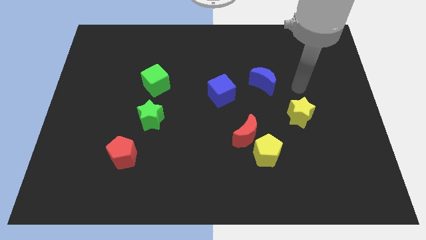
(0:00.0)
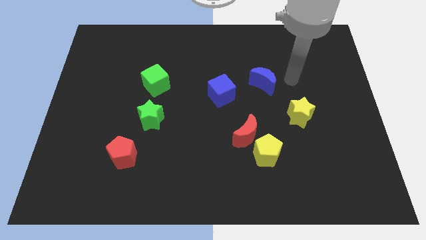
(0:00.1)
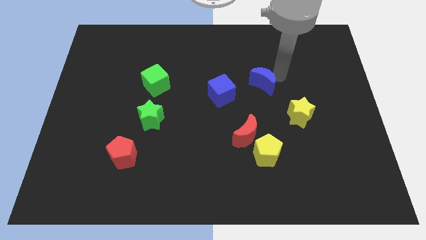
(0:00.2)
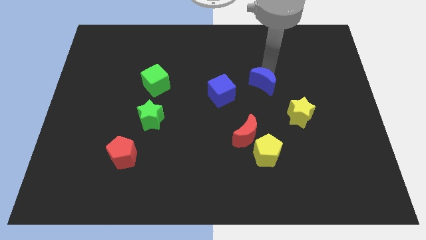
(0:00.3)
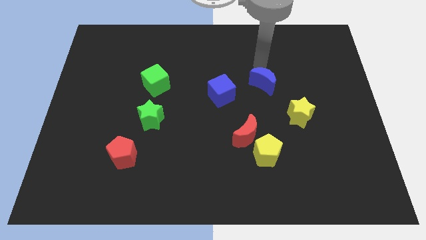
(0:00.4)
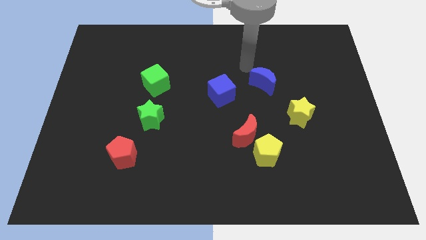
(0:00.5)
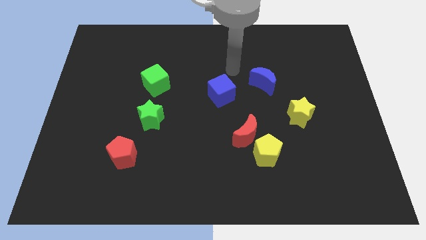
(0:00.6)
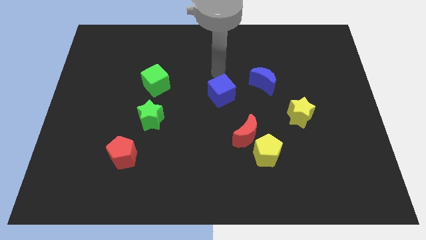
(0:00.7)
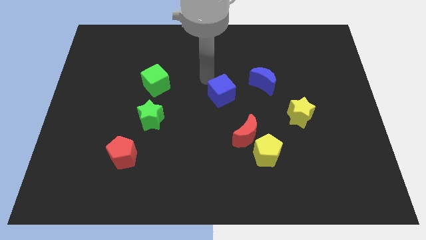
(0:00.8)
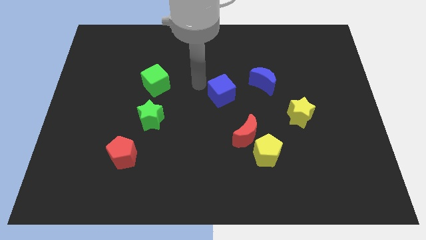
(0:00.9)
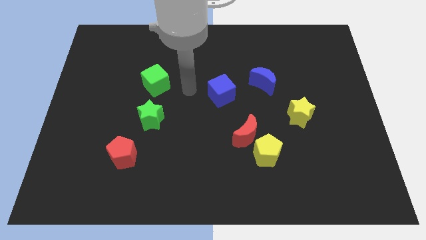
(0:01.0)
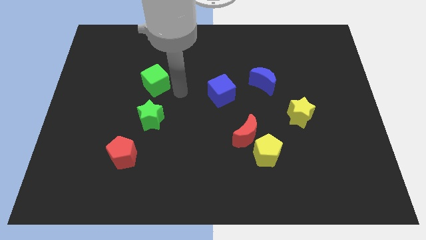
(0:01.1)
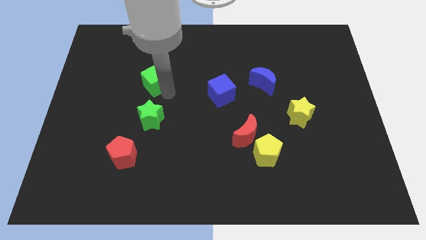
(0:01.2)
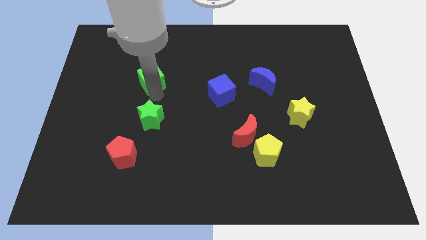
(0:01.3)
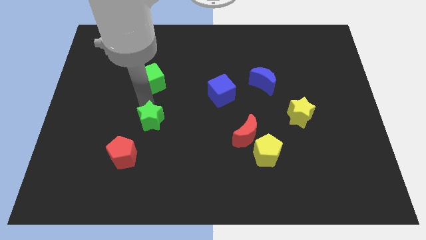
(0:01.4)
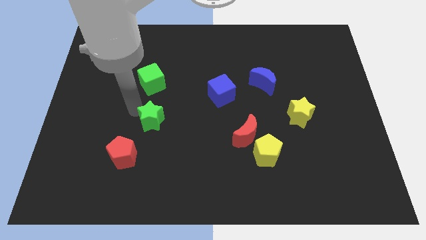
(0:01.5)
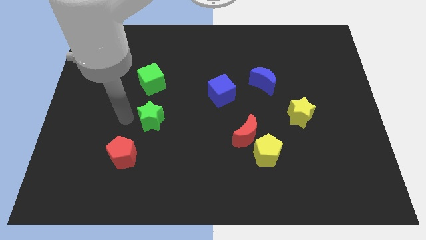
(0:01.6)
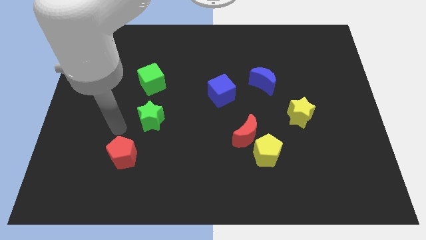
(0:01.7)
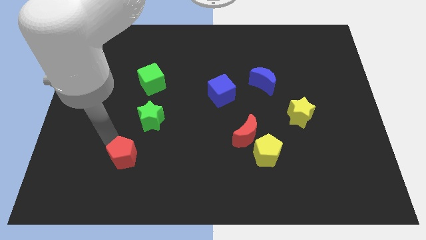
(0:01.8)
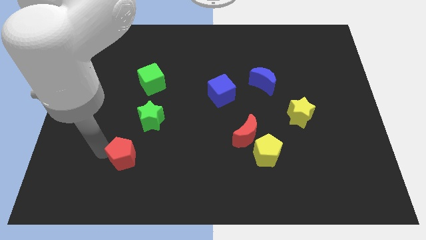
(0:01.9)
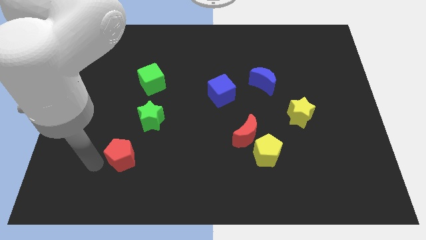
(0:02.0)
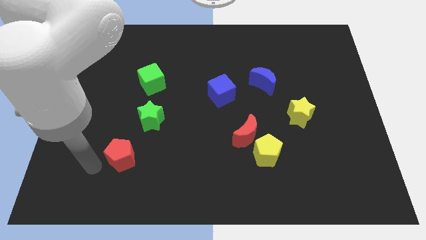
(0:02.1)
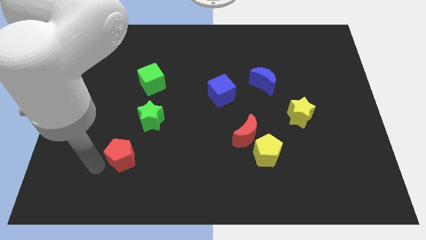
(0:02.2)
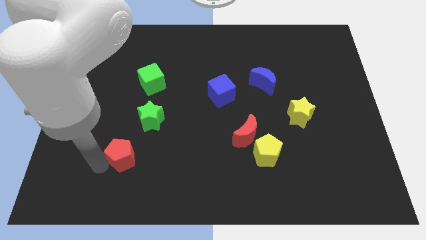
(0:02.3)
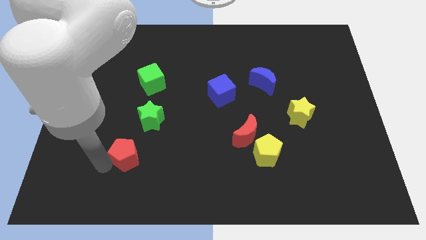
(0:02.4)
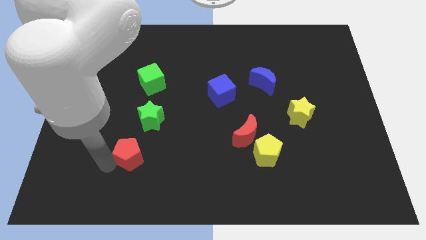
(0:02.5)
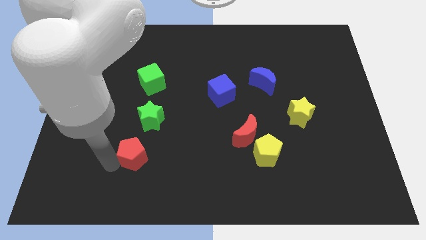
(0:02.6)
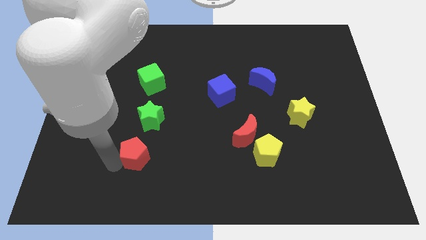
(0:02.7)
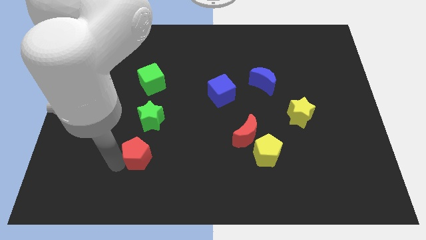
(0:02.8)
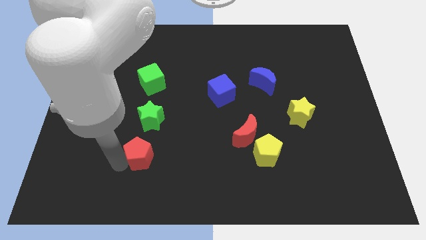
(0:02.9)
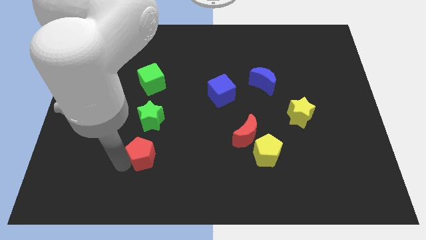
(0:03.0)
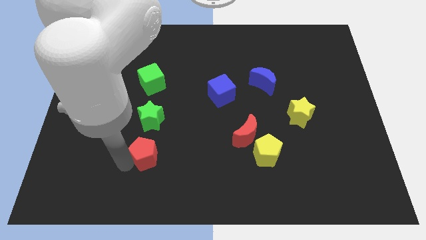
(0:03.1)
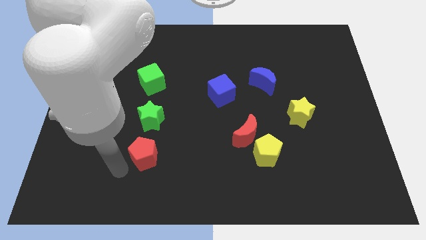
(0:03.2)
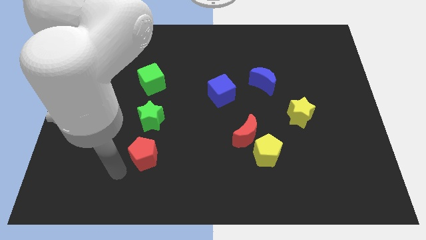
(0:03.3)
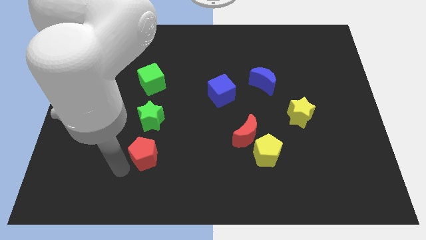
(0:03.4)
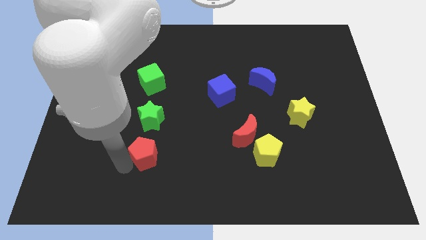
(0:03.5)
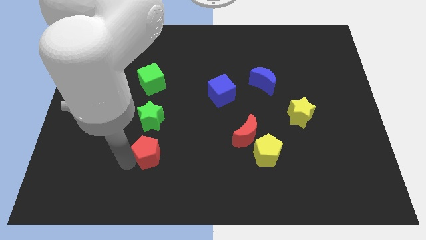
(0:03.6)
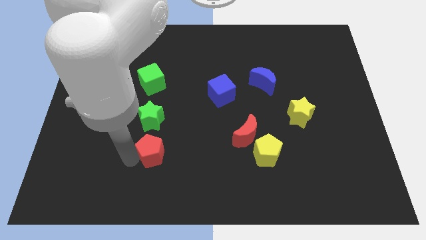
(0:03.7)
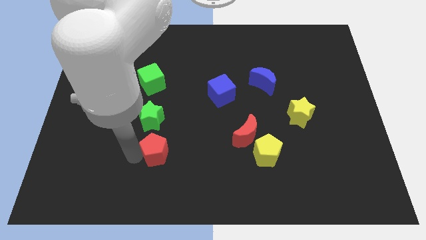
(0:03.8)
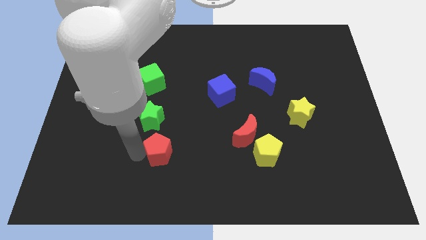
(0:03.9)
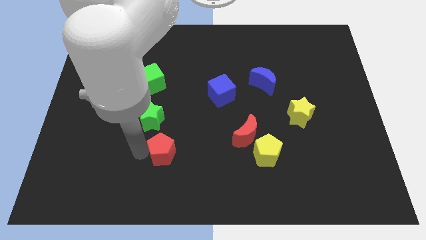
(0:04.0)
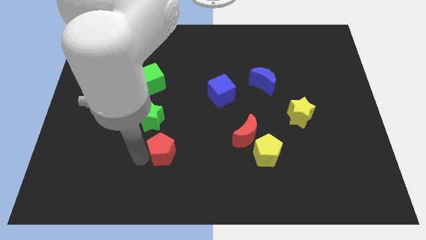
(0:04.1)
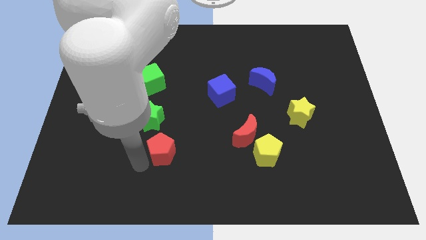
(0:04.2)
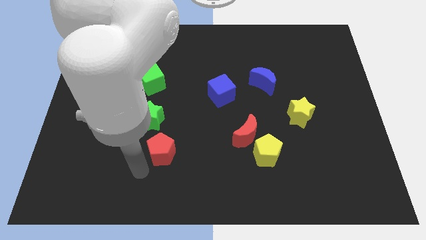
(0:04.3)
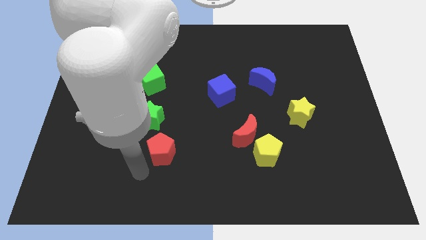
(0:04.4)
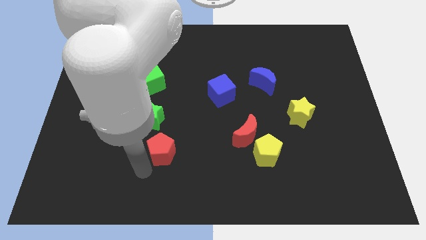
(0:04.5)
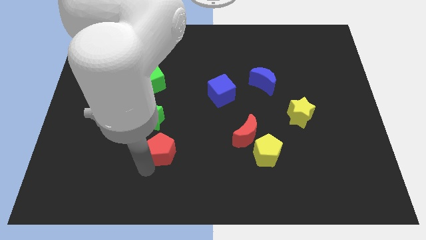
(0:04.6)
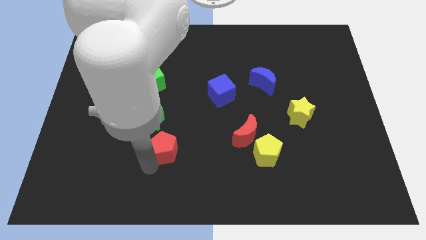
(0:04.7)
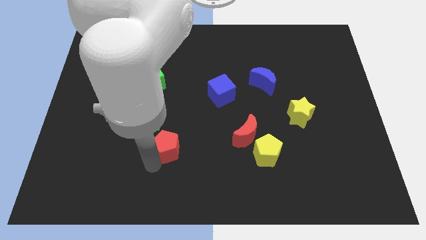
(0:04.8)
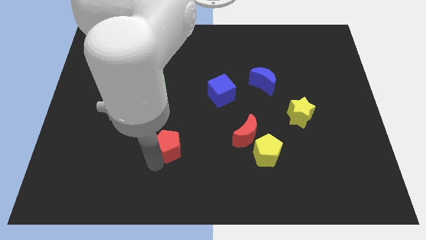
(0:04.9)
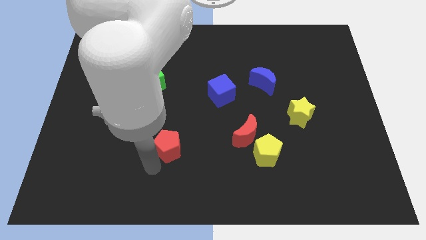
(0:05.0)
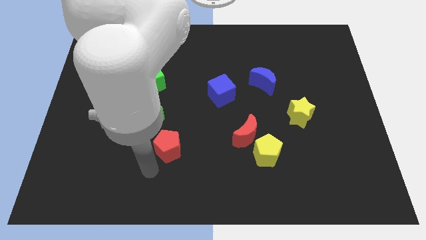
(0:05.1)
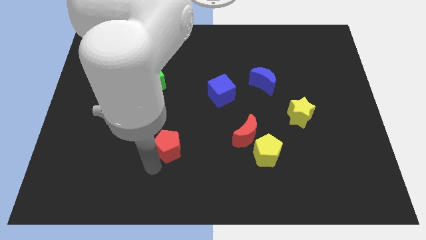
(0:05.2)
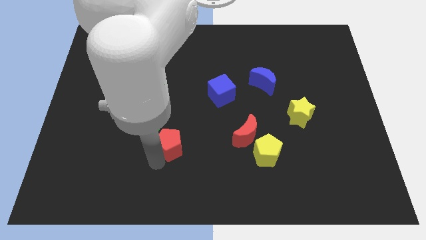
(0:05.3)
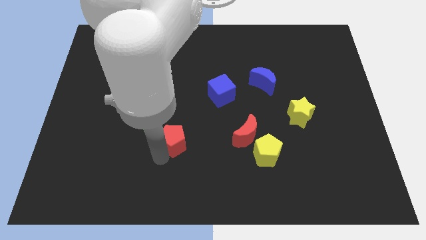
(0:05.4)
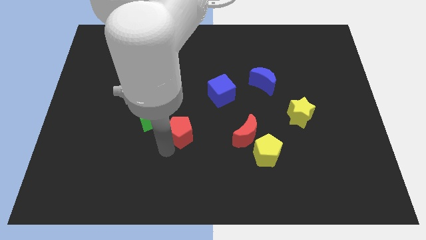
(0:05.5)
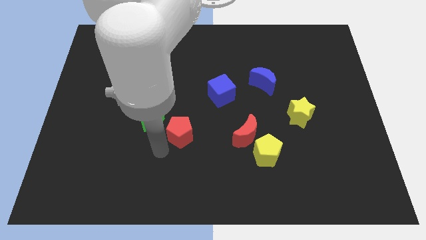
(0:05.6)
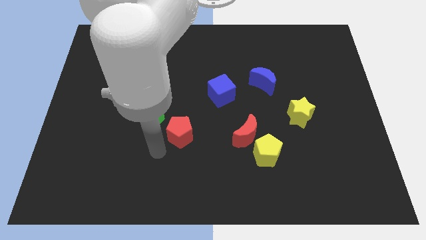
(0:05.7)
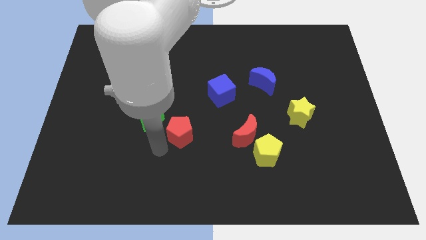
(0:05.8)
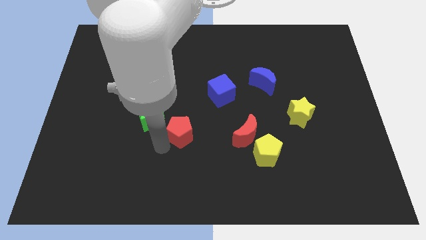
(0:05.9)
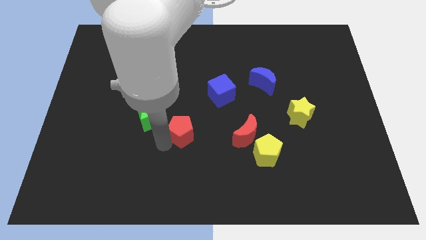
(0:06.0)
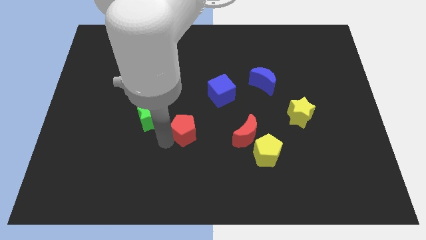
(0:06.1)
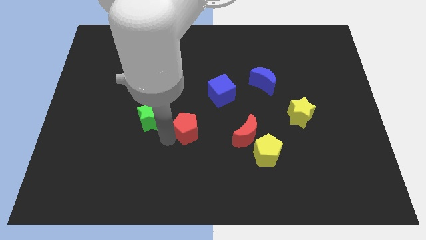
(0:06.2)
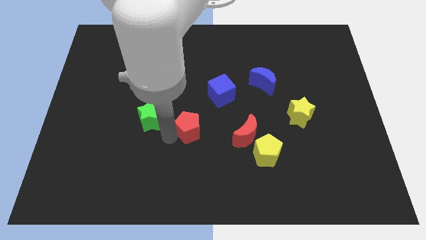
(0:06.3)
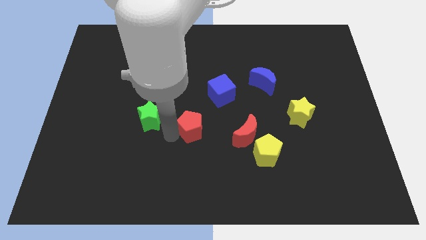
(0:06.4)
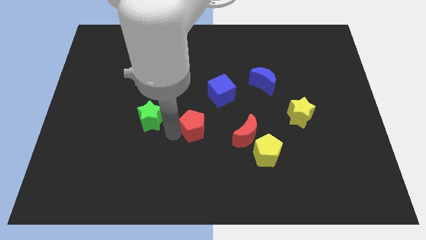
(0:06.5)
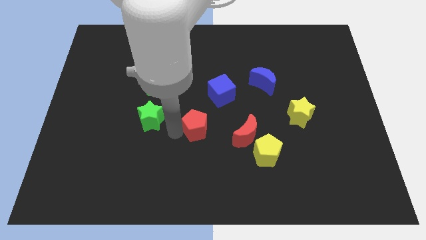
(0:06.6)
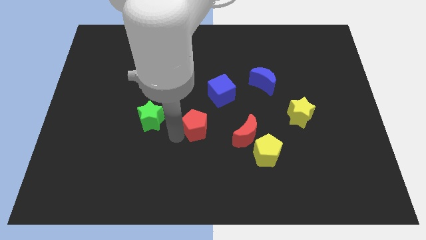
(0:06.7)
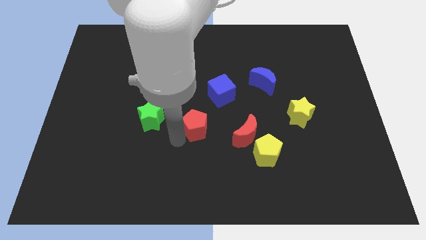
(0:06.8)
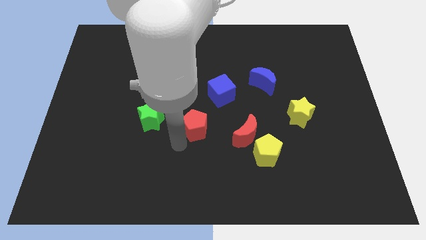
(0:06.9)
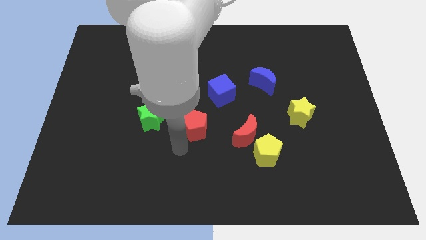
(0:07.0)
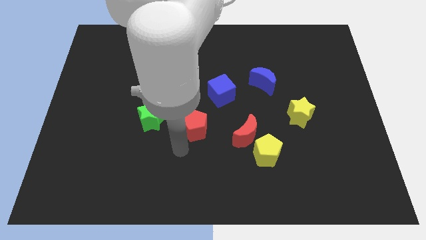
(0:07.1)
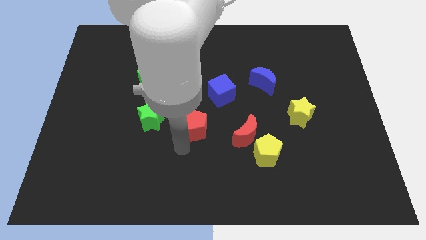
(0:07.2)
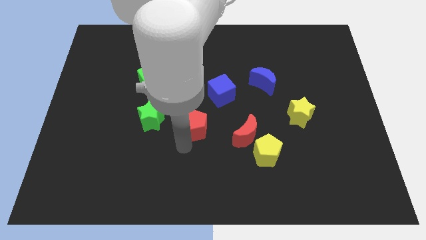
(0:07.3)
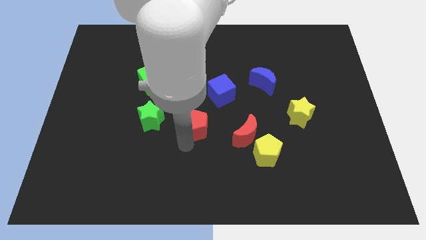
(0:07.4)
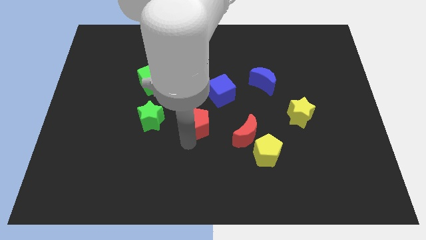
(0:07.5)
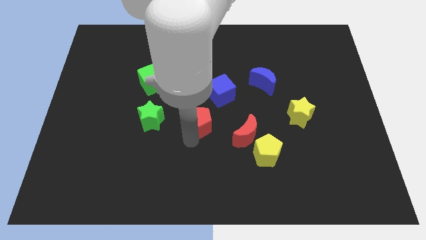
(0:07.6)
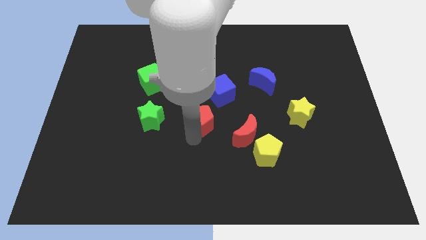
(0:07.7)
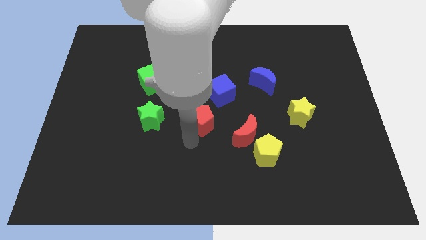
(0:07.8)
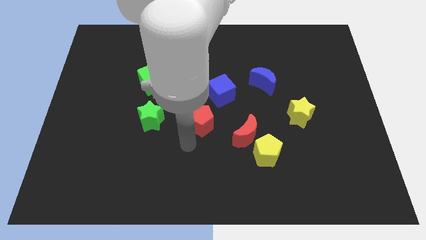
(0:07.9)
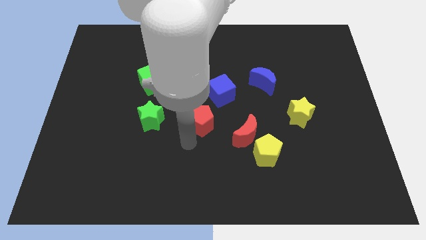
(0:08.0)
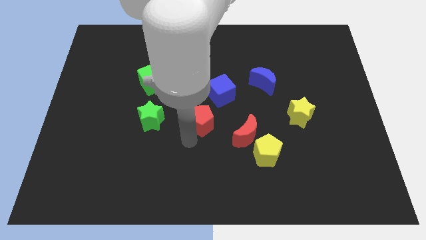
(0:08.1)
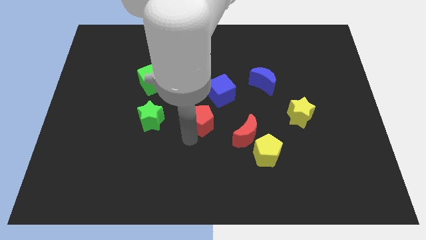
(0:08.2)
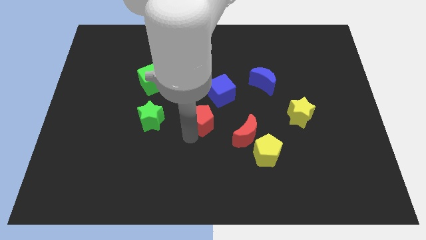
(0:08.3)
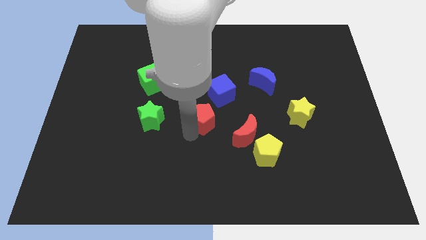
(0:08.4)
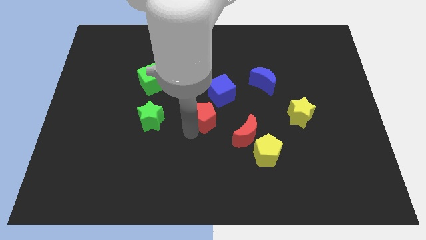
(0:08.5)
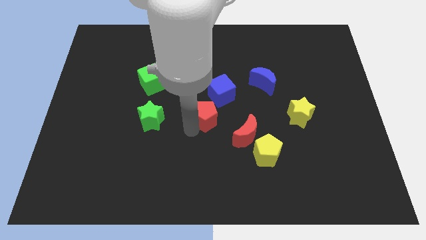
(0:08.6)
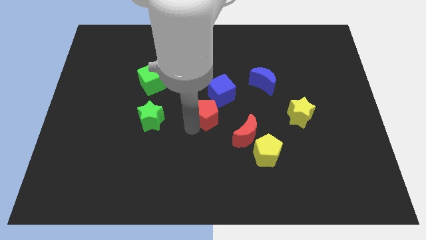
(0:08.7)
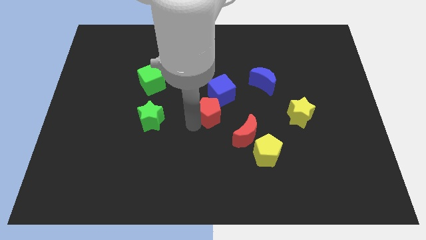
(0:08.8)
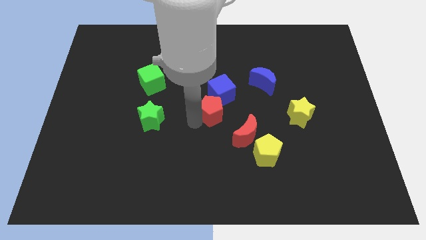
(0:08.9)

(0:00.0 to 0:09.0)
put the red pentagon towards the blue cube
